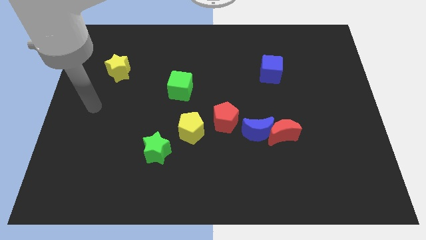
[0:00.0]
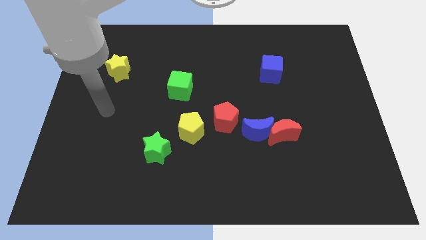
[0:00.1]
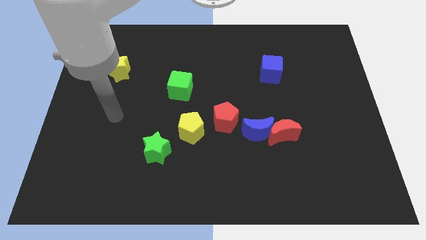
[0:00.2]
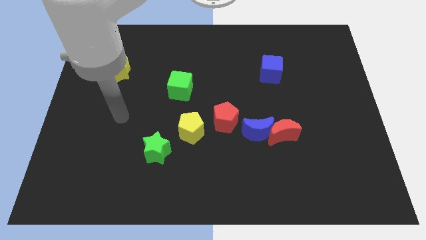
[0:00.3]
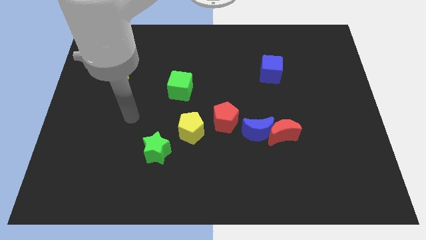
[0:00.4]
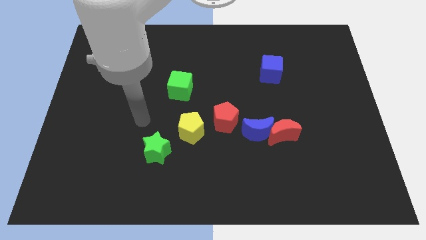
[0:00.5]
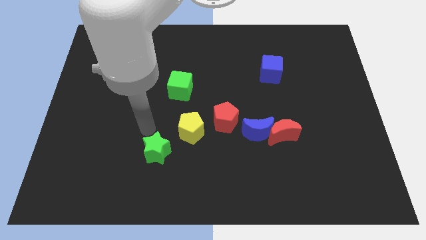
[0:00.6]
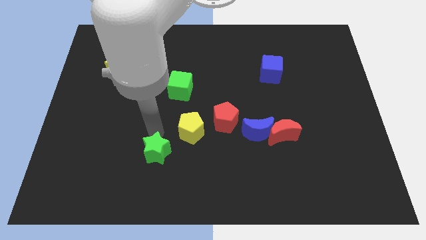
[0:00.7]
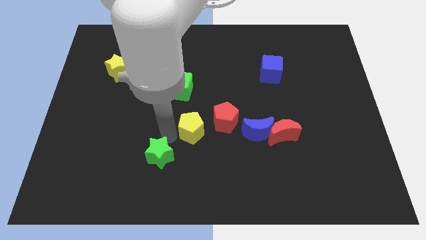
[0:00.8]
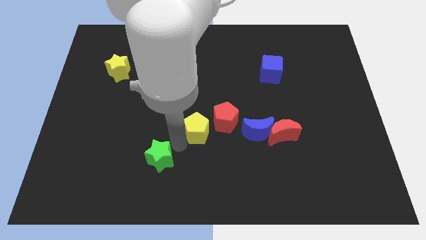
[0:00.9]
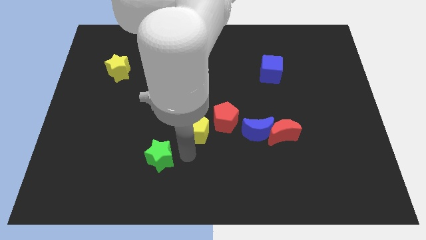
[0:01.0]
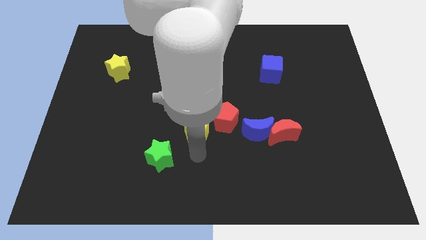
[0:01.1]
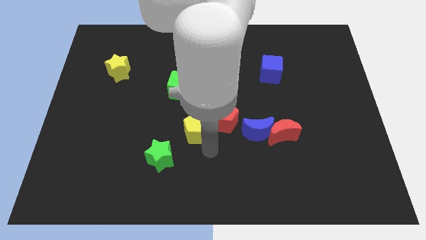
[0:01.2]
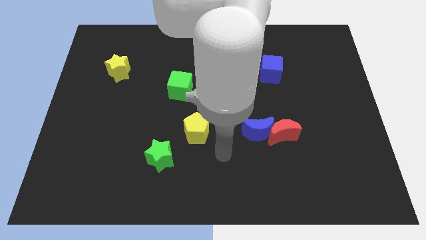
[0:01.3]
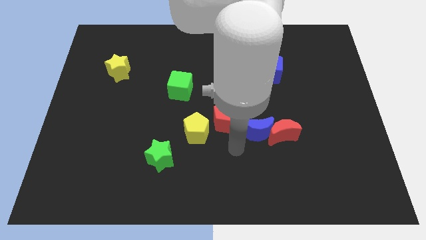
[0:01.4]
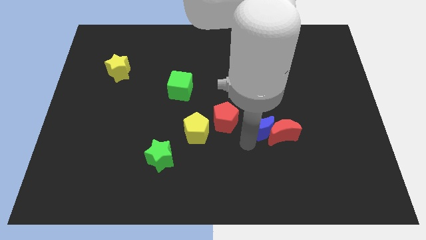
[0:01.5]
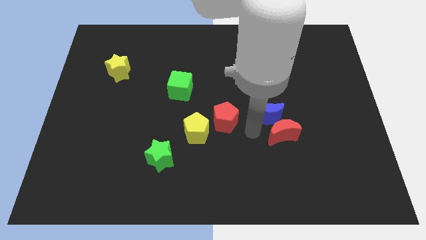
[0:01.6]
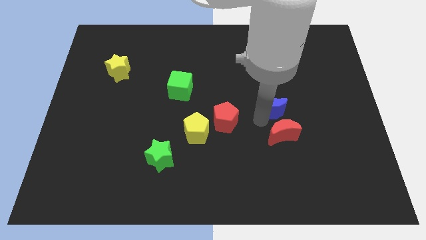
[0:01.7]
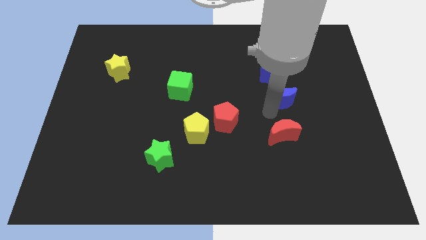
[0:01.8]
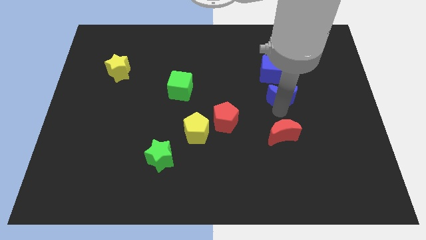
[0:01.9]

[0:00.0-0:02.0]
separate the red moon from the blue moon

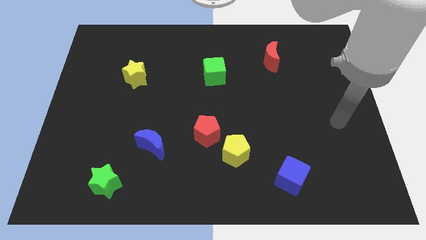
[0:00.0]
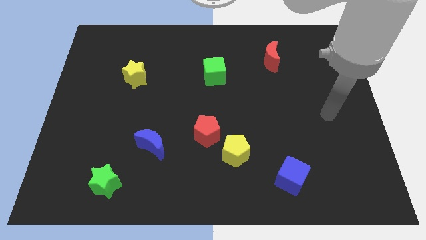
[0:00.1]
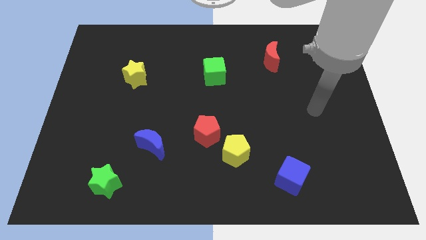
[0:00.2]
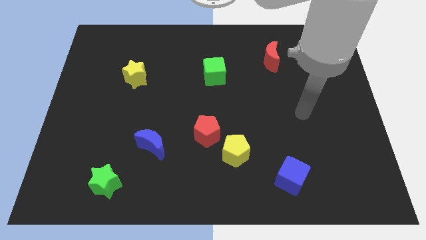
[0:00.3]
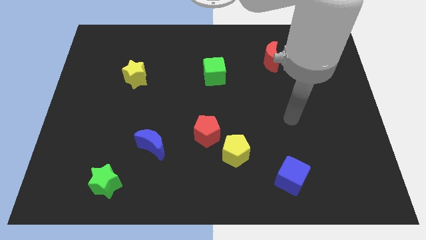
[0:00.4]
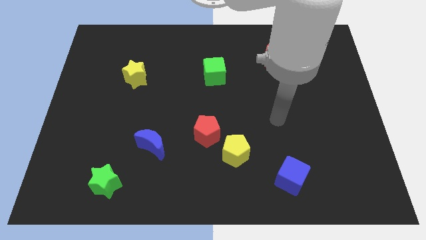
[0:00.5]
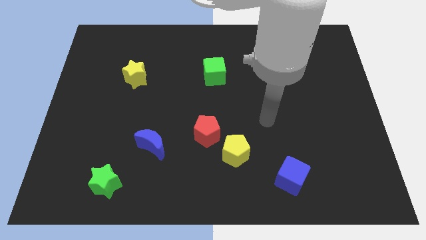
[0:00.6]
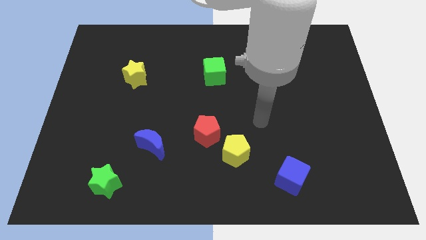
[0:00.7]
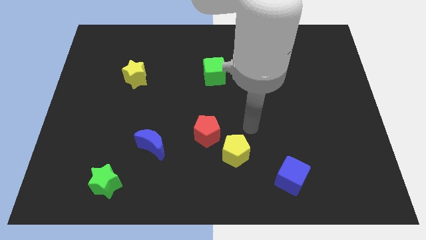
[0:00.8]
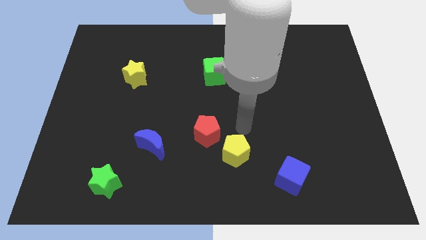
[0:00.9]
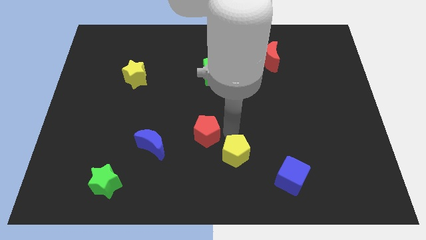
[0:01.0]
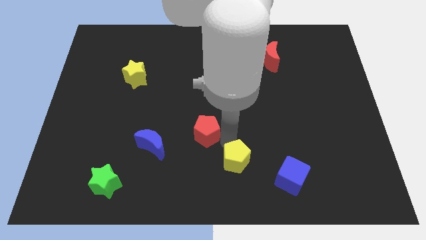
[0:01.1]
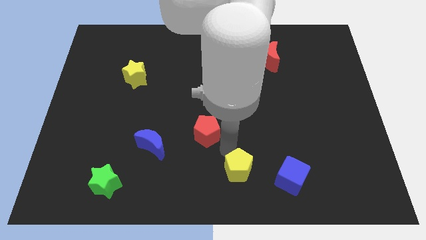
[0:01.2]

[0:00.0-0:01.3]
pull the red pentagon apart from the yellow pentagon

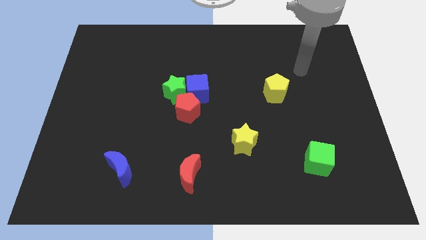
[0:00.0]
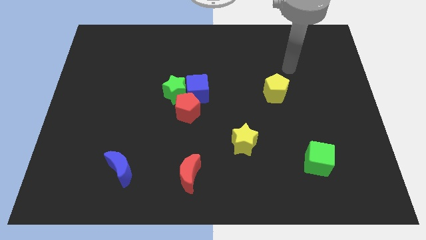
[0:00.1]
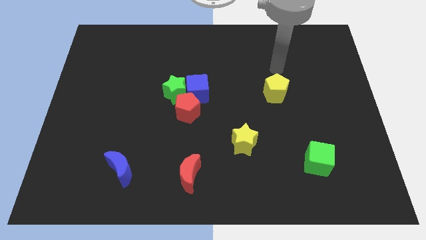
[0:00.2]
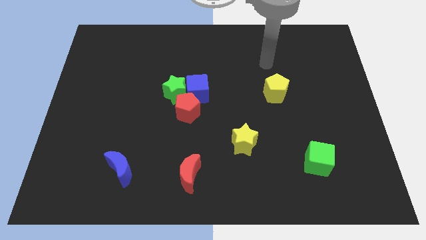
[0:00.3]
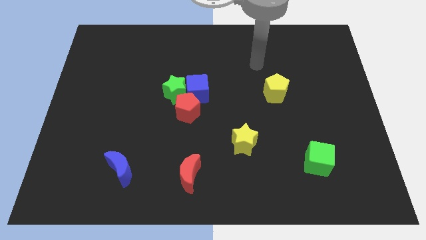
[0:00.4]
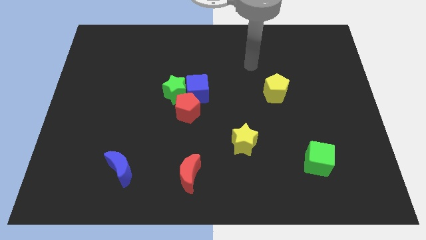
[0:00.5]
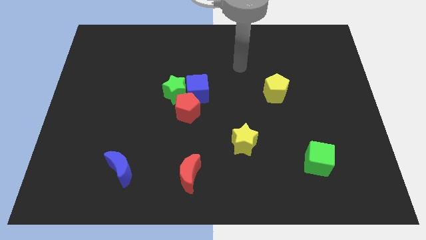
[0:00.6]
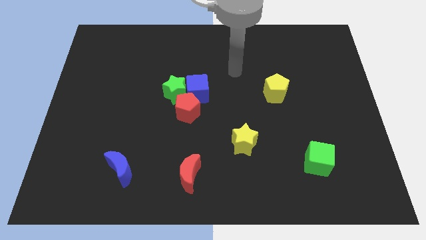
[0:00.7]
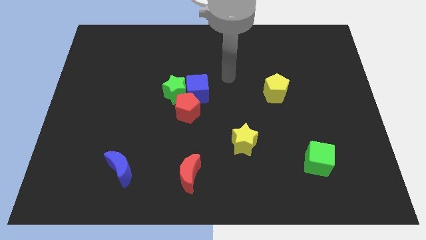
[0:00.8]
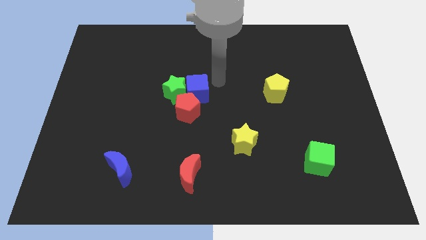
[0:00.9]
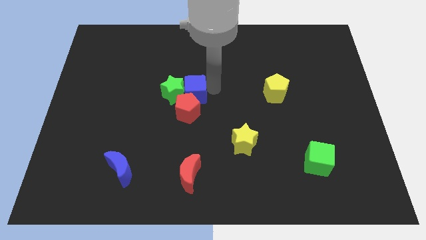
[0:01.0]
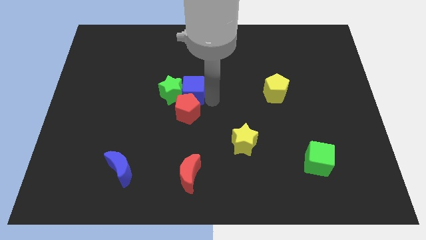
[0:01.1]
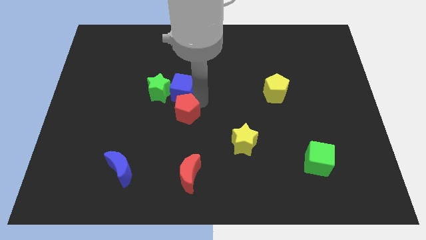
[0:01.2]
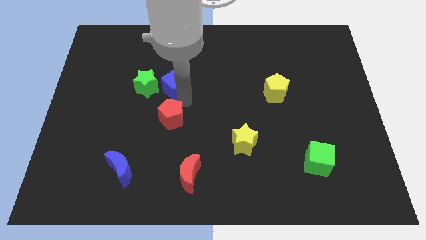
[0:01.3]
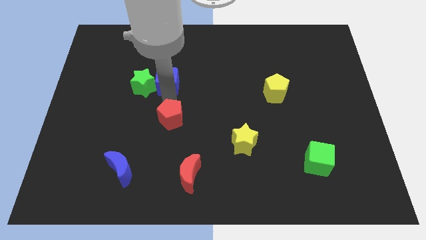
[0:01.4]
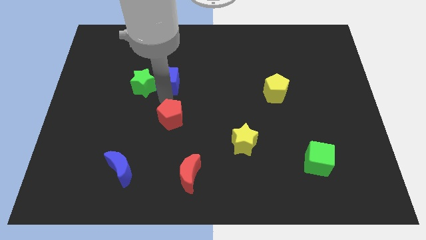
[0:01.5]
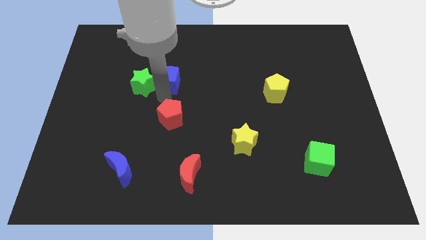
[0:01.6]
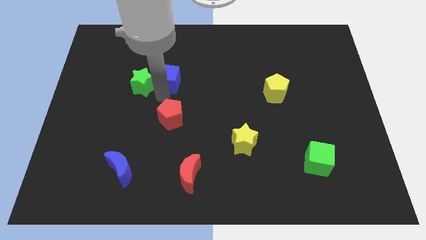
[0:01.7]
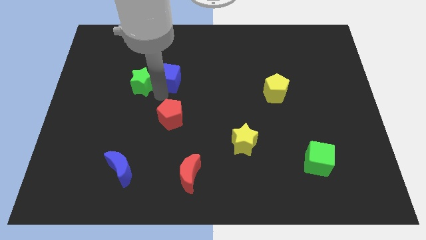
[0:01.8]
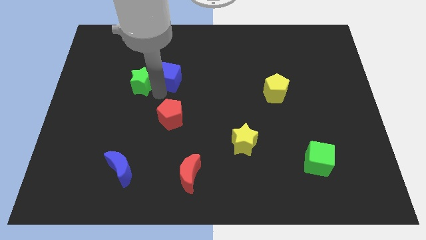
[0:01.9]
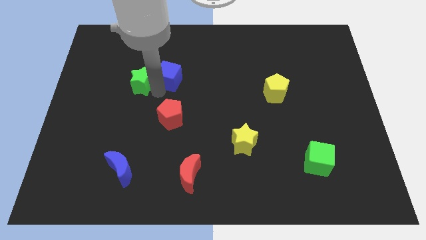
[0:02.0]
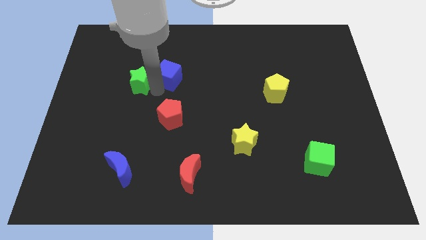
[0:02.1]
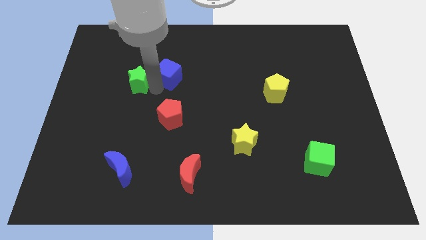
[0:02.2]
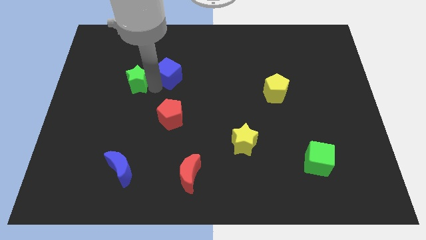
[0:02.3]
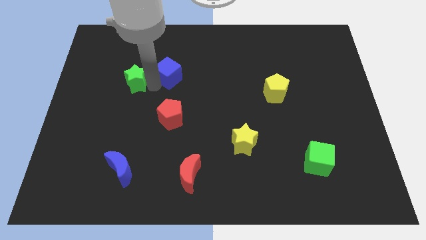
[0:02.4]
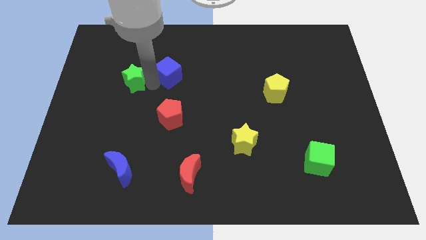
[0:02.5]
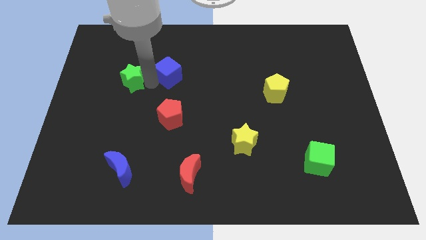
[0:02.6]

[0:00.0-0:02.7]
separate the green star from the blue cube and red pentagon

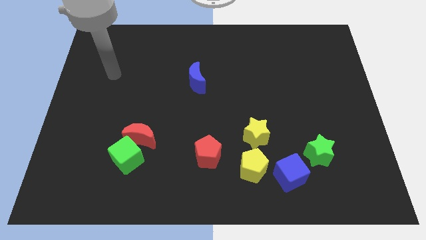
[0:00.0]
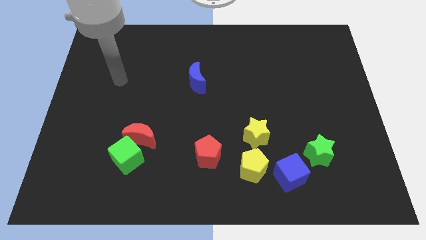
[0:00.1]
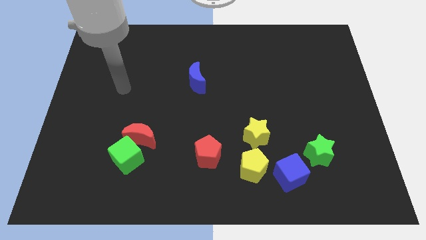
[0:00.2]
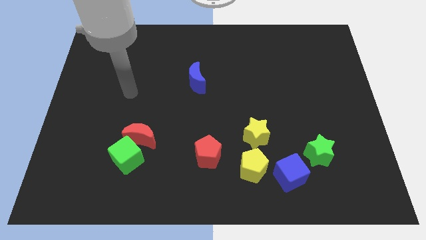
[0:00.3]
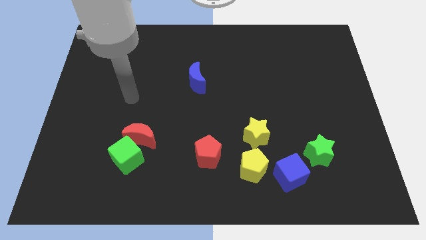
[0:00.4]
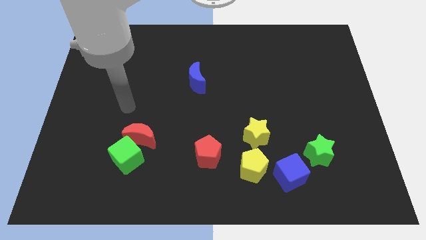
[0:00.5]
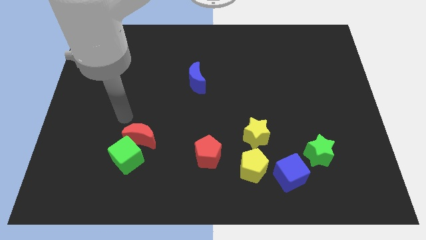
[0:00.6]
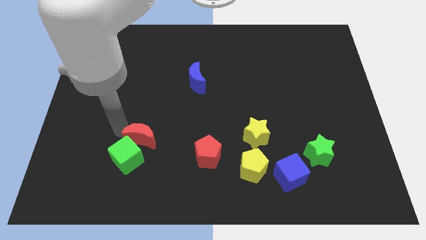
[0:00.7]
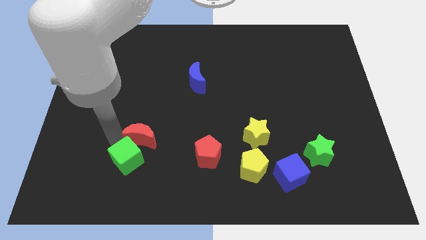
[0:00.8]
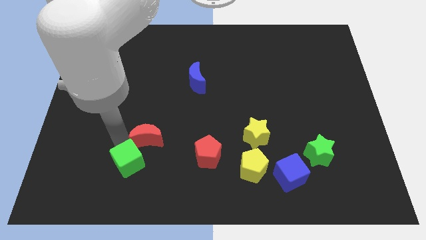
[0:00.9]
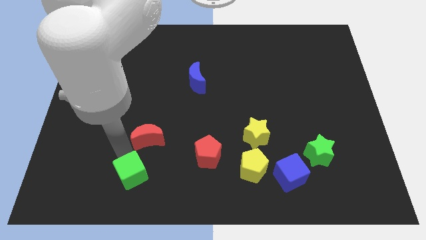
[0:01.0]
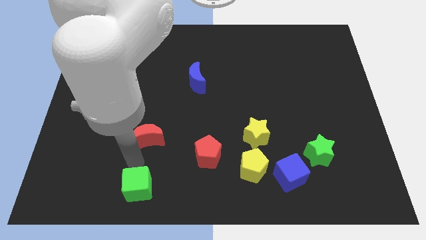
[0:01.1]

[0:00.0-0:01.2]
separate the red moon from the green cube

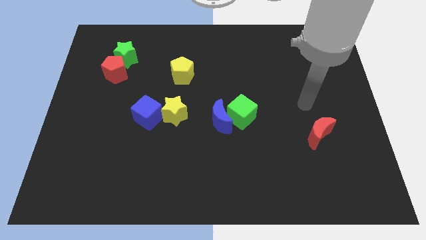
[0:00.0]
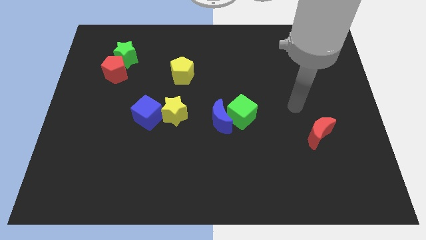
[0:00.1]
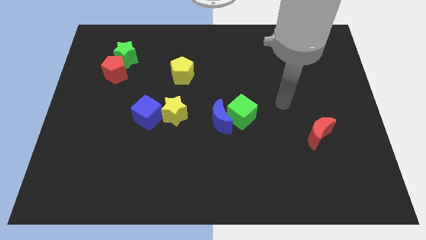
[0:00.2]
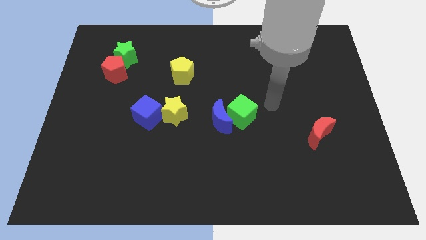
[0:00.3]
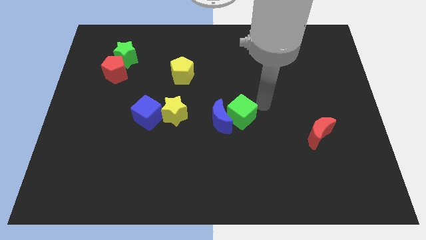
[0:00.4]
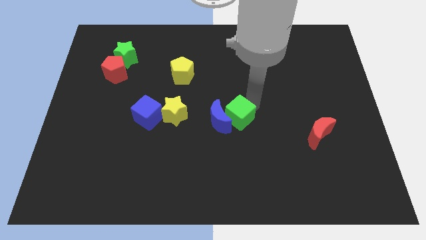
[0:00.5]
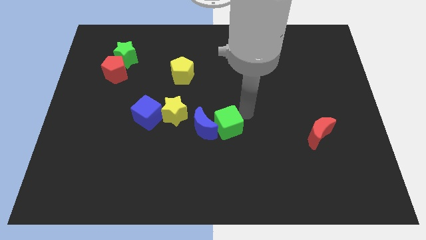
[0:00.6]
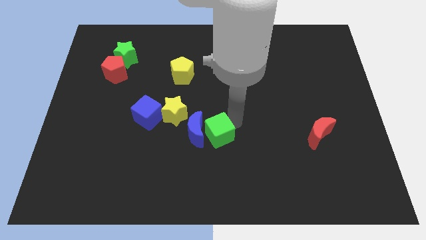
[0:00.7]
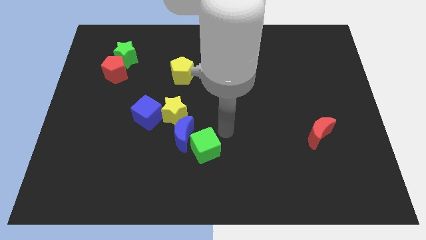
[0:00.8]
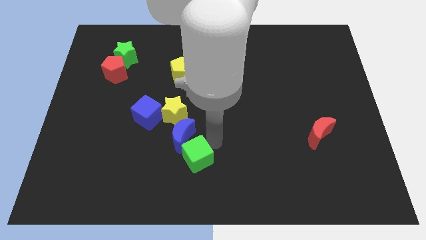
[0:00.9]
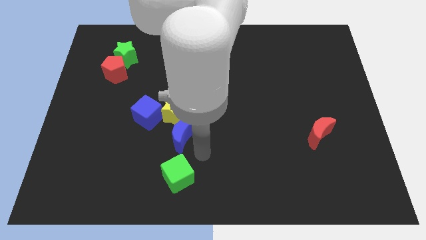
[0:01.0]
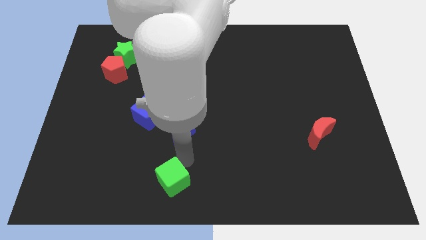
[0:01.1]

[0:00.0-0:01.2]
move the blue moon away from the green cube

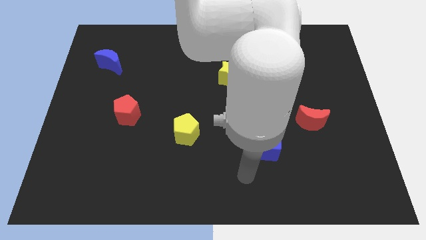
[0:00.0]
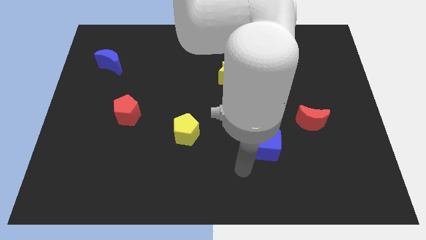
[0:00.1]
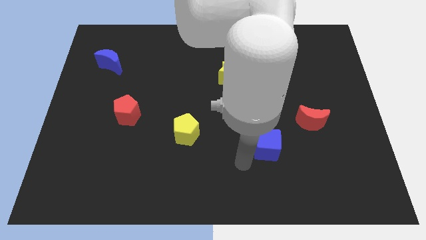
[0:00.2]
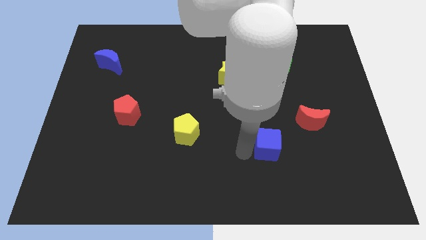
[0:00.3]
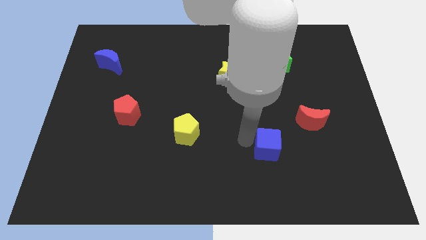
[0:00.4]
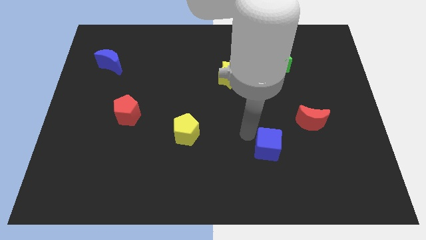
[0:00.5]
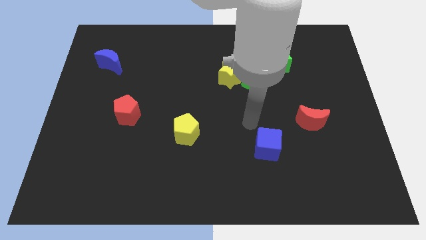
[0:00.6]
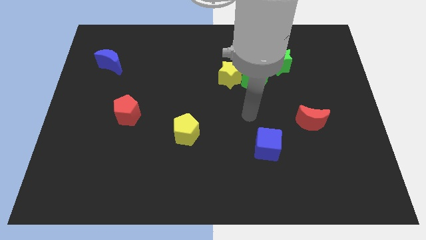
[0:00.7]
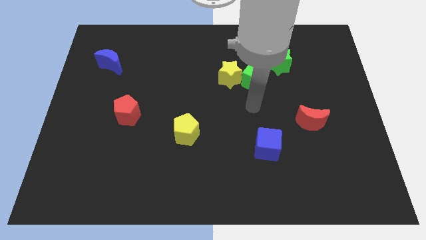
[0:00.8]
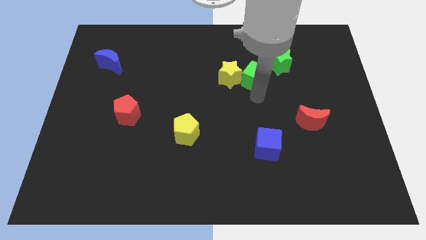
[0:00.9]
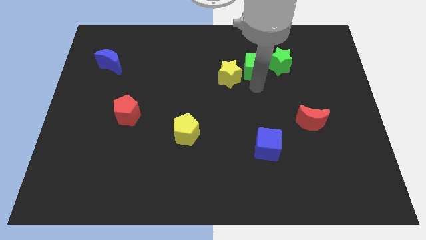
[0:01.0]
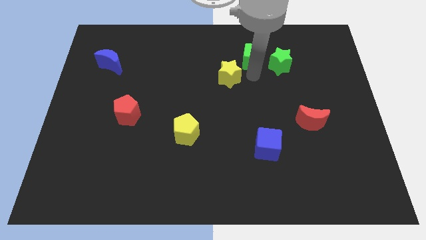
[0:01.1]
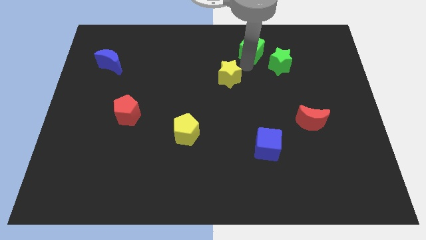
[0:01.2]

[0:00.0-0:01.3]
separate the yellow star from the green cube
